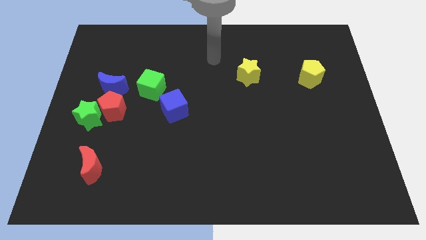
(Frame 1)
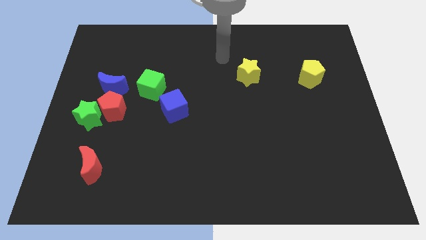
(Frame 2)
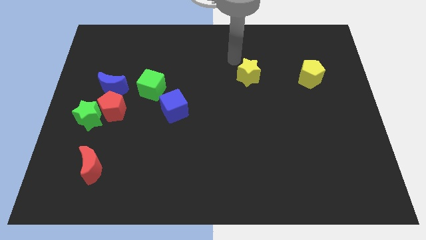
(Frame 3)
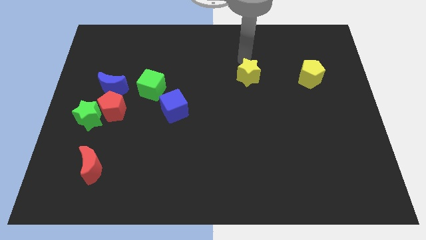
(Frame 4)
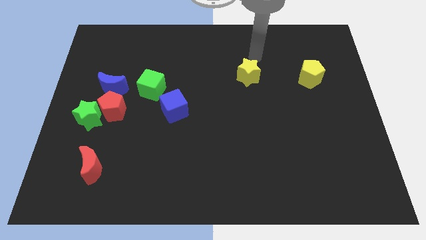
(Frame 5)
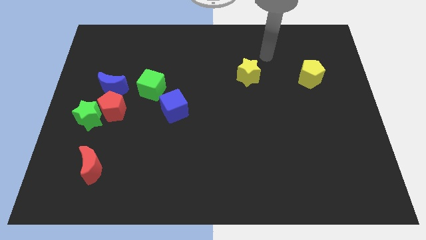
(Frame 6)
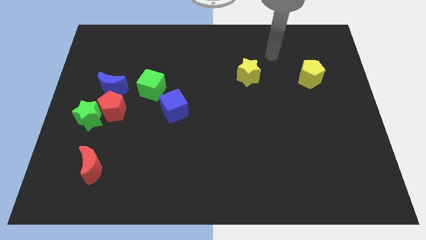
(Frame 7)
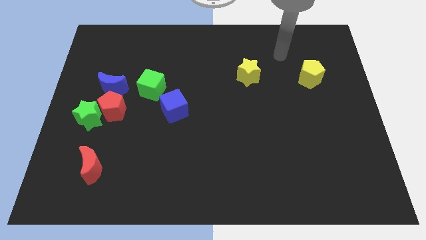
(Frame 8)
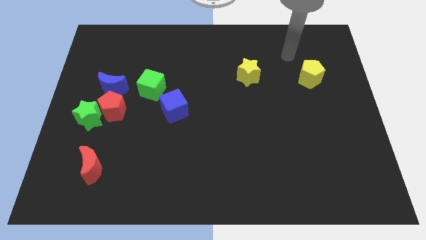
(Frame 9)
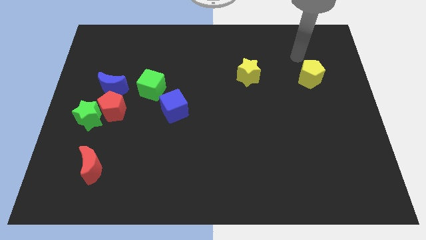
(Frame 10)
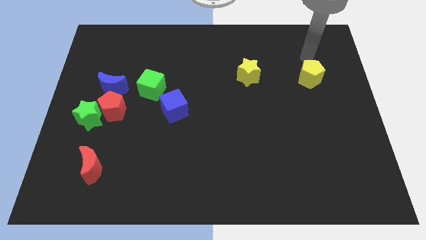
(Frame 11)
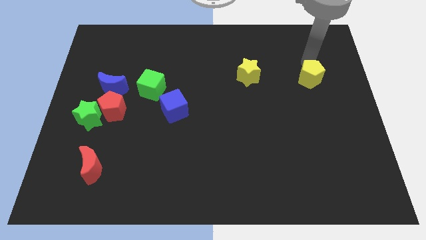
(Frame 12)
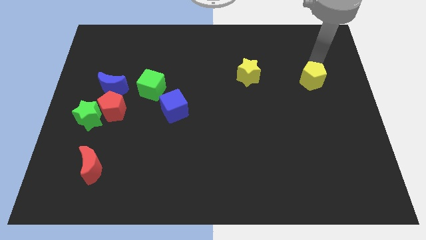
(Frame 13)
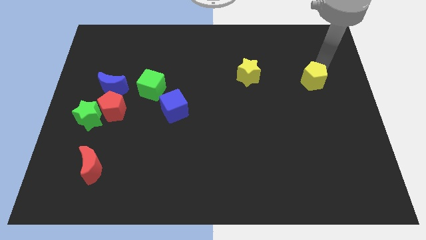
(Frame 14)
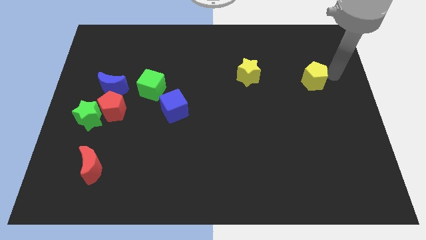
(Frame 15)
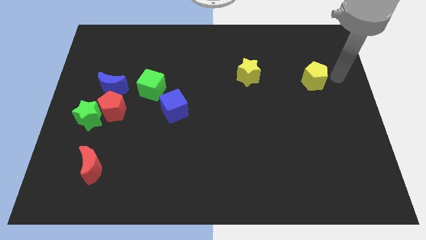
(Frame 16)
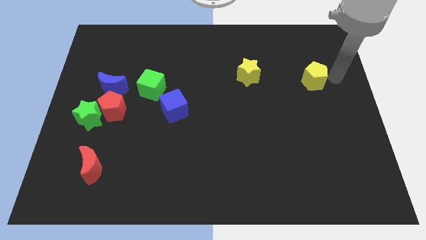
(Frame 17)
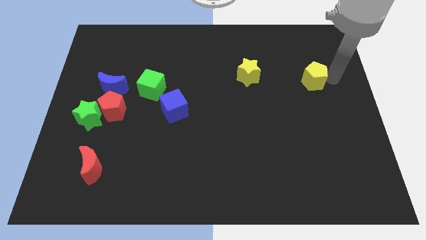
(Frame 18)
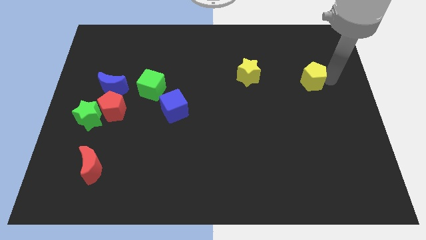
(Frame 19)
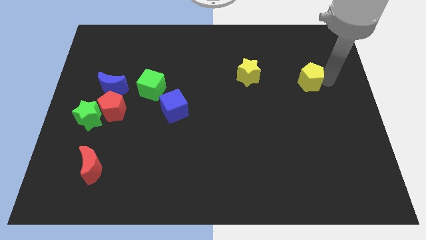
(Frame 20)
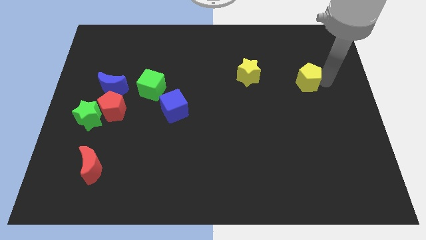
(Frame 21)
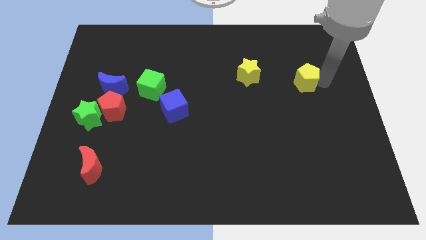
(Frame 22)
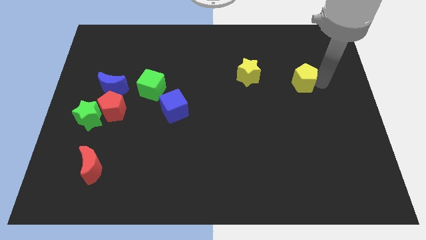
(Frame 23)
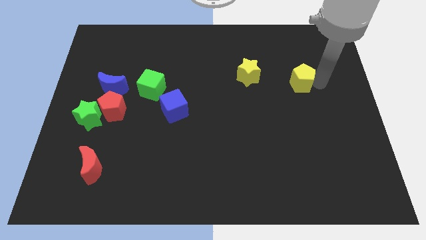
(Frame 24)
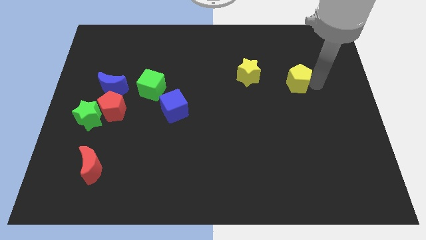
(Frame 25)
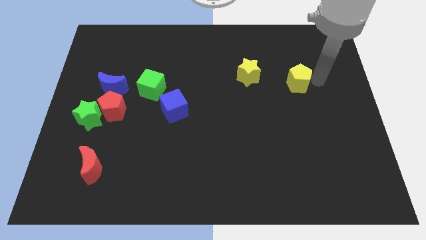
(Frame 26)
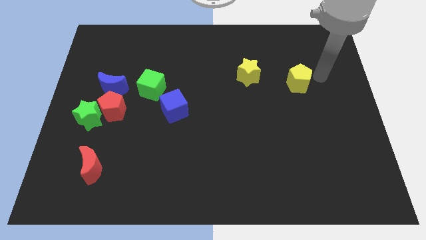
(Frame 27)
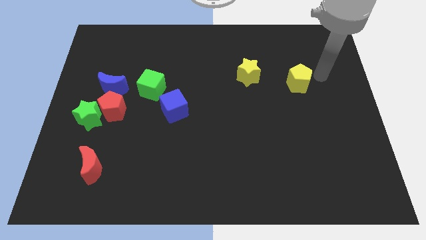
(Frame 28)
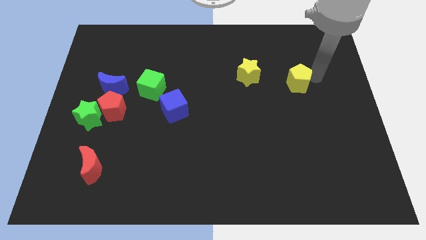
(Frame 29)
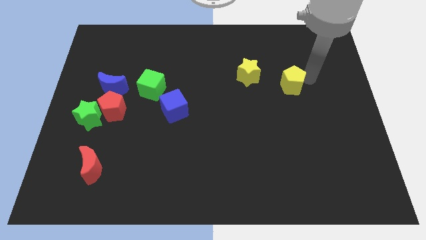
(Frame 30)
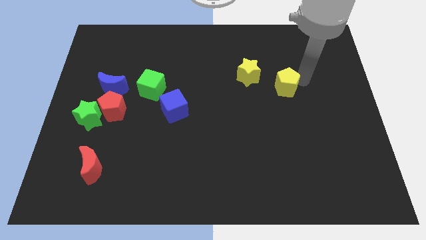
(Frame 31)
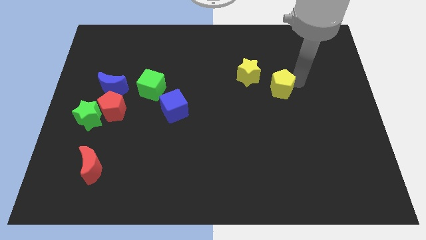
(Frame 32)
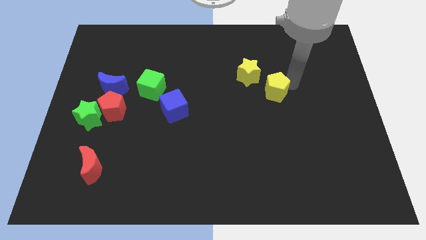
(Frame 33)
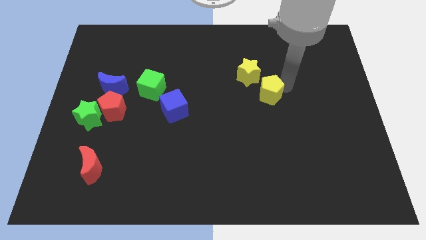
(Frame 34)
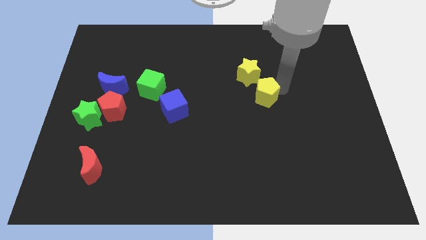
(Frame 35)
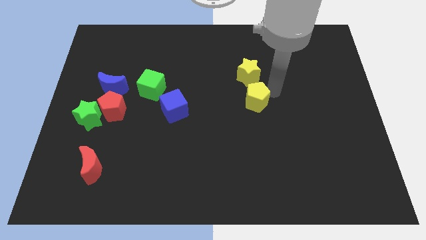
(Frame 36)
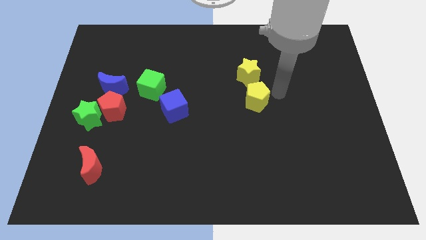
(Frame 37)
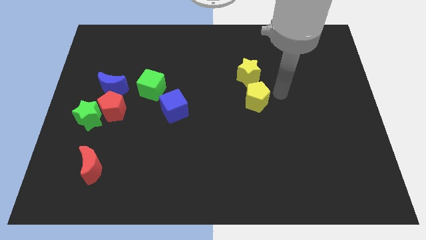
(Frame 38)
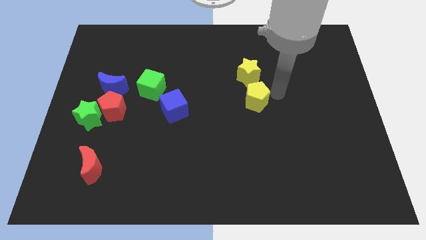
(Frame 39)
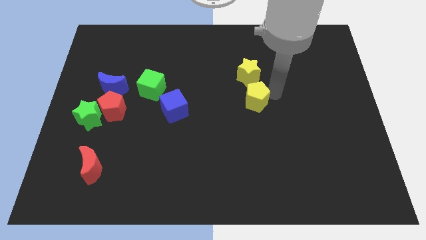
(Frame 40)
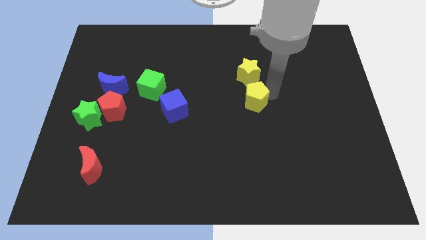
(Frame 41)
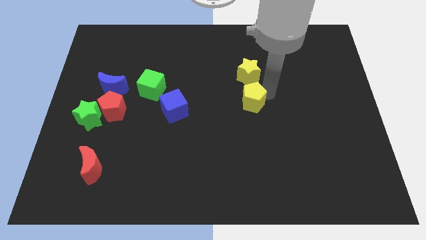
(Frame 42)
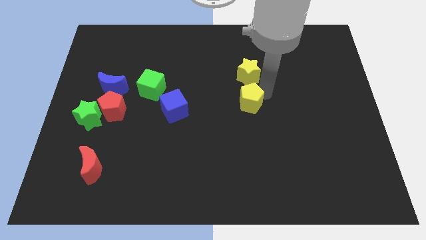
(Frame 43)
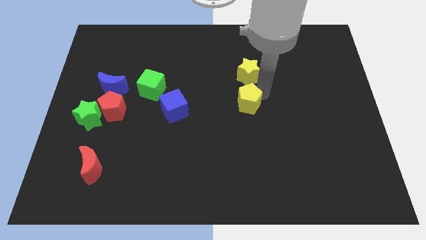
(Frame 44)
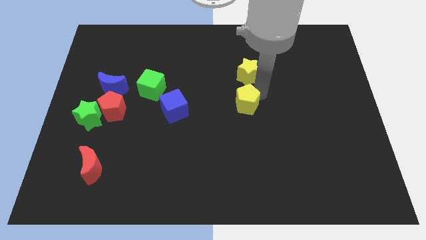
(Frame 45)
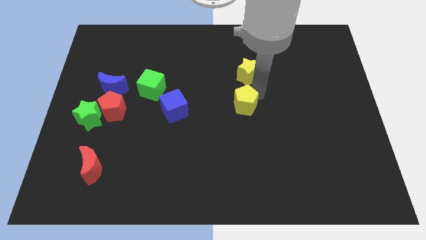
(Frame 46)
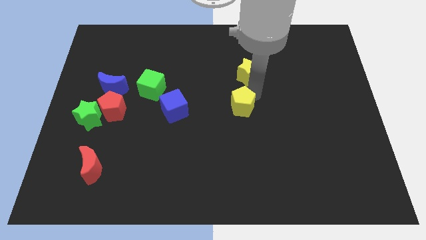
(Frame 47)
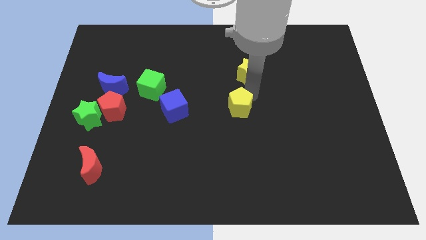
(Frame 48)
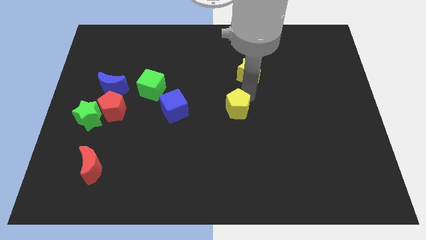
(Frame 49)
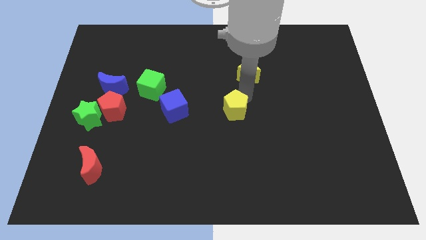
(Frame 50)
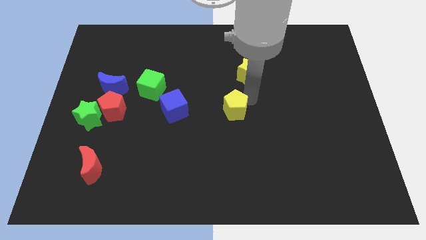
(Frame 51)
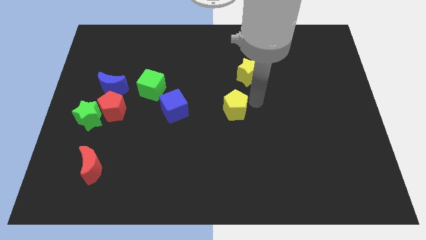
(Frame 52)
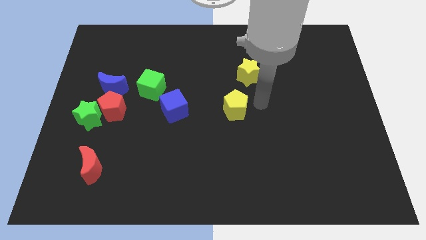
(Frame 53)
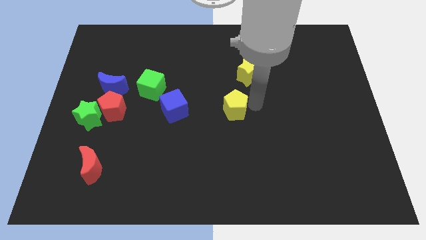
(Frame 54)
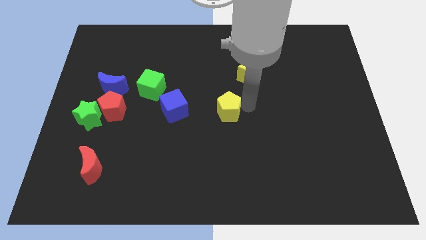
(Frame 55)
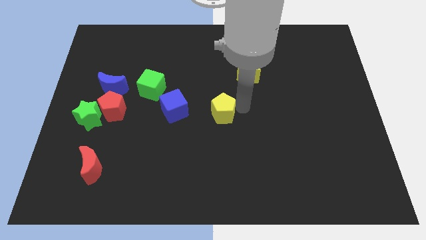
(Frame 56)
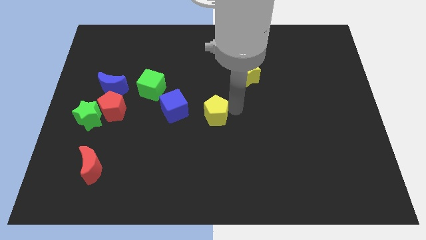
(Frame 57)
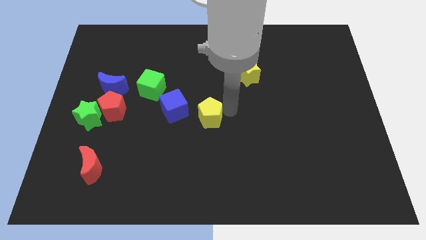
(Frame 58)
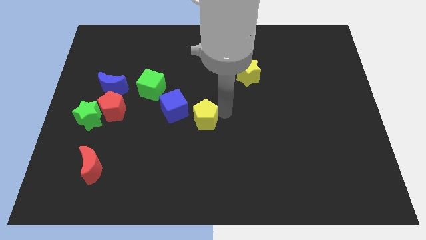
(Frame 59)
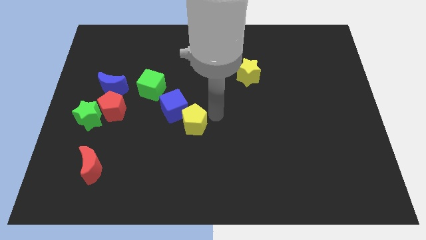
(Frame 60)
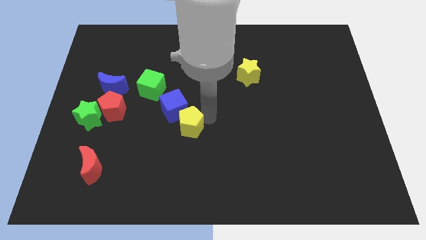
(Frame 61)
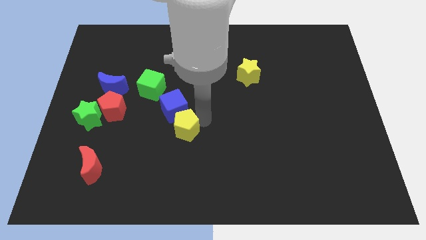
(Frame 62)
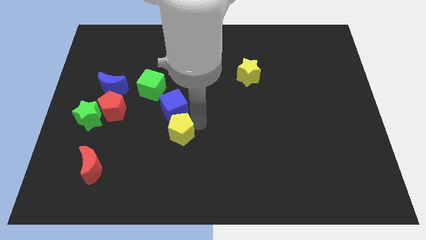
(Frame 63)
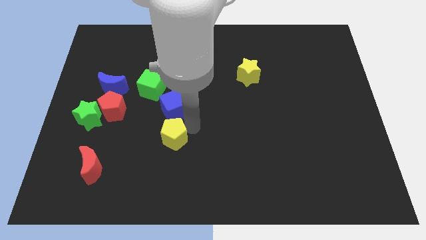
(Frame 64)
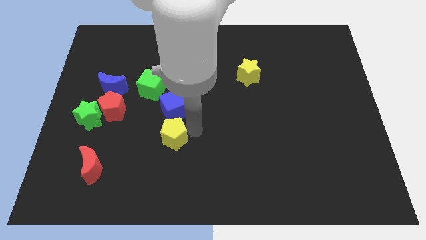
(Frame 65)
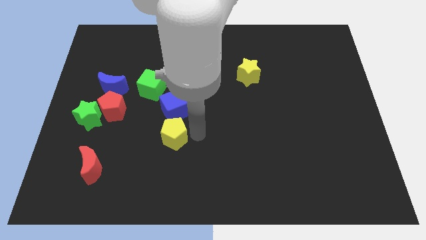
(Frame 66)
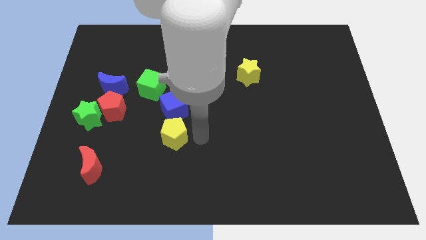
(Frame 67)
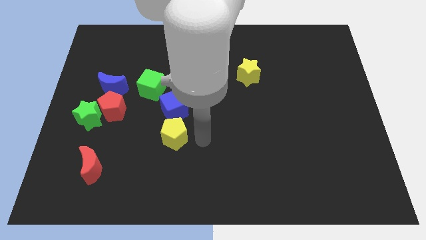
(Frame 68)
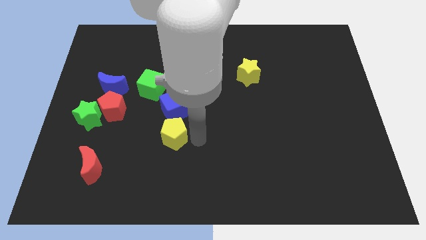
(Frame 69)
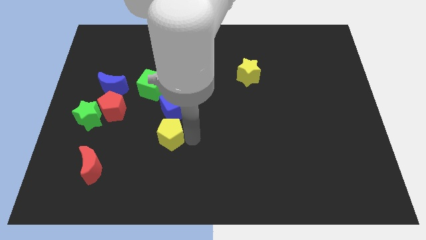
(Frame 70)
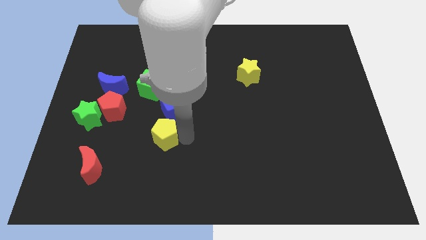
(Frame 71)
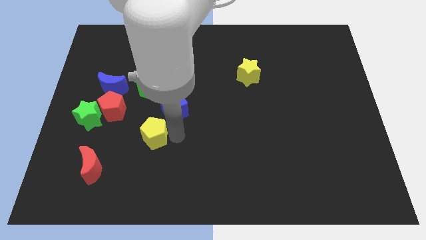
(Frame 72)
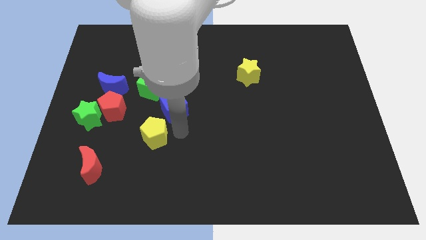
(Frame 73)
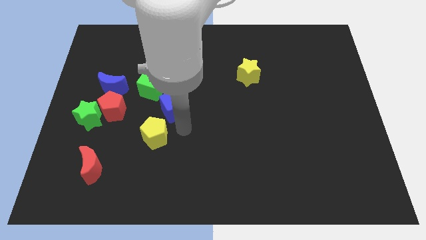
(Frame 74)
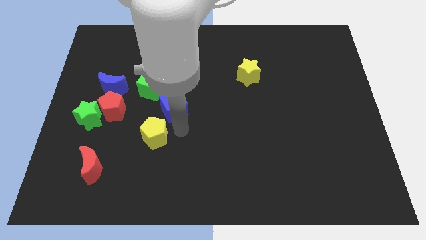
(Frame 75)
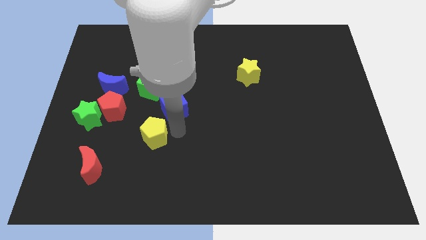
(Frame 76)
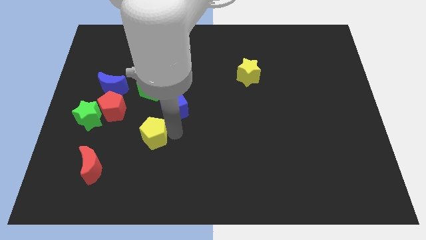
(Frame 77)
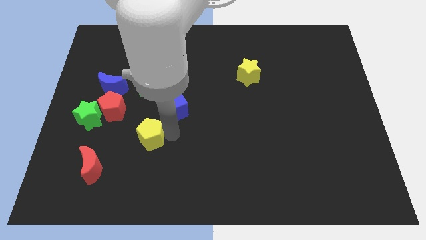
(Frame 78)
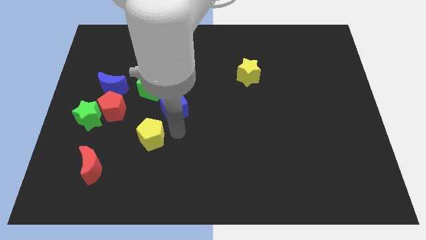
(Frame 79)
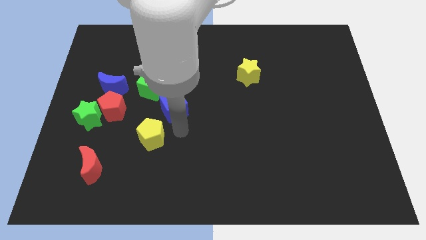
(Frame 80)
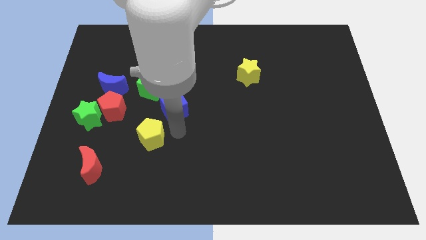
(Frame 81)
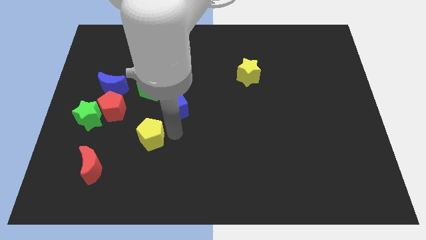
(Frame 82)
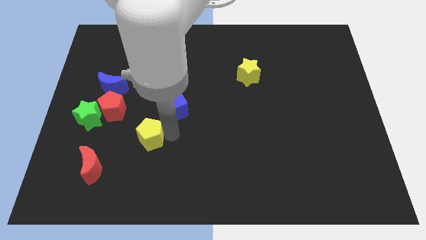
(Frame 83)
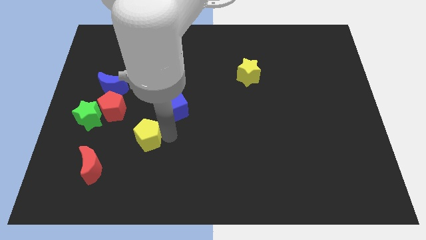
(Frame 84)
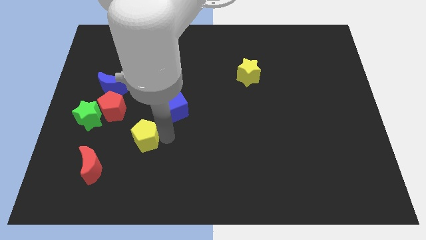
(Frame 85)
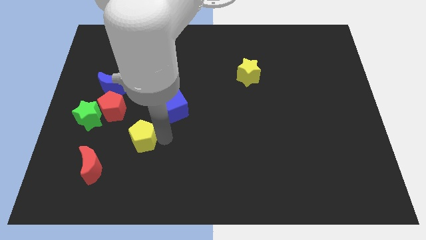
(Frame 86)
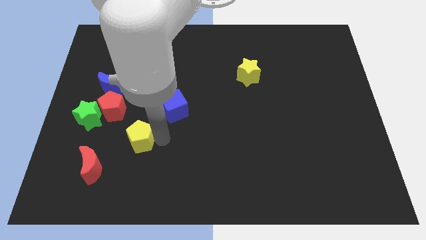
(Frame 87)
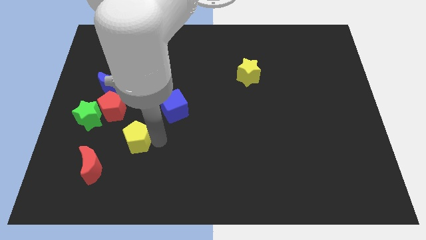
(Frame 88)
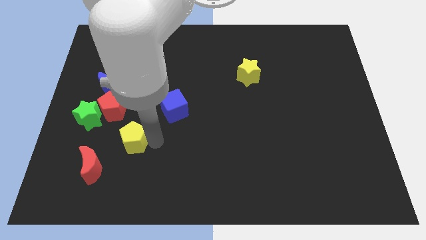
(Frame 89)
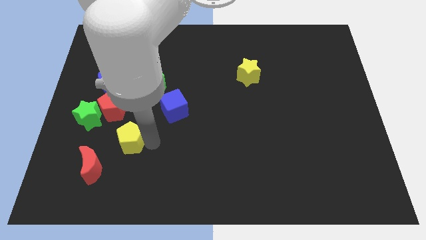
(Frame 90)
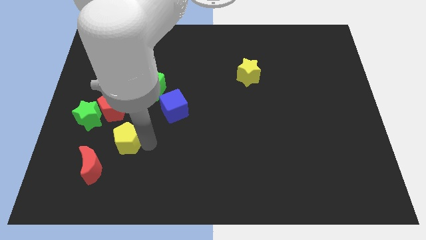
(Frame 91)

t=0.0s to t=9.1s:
put the yellow pentagon to the bottom of the red pentagon
